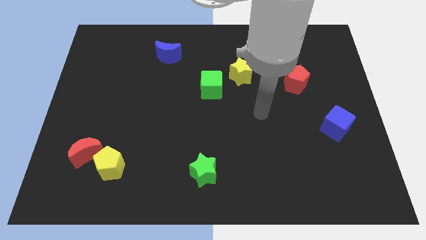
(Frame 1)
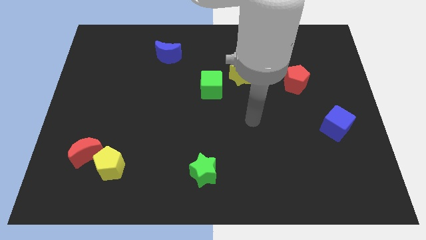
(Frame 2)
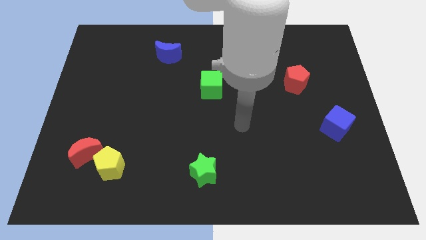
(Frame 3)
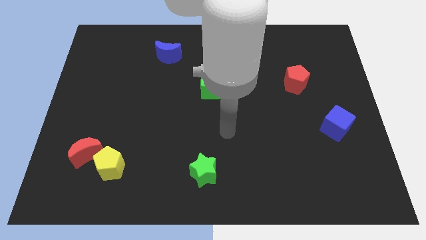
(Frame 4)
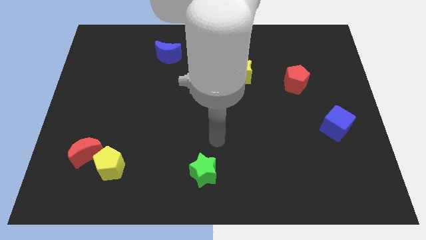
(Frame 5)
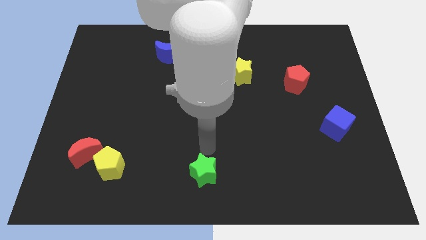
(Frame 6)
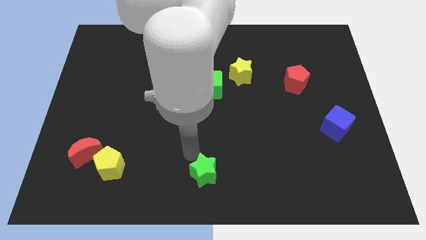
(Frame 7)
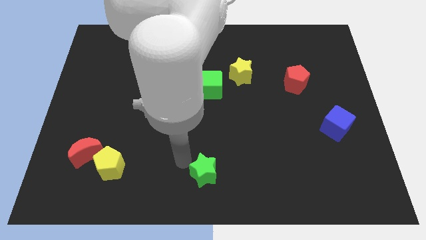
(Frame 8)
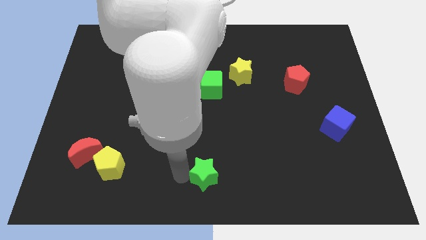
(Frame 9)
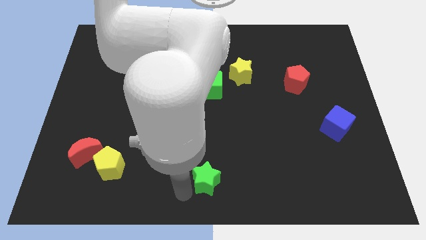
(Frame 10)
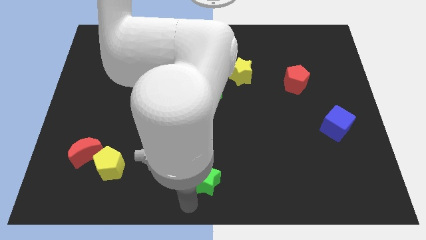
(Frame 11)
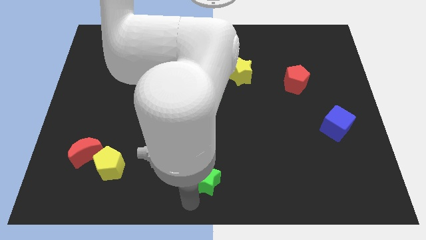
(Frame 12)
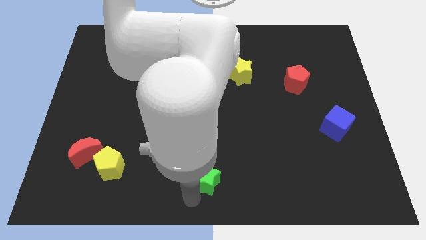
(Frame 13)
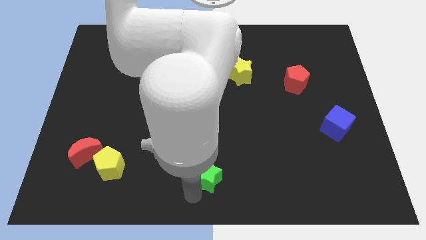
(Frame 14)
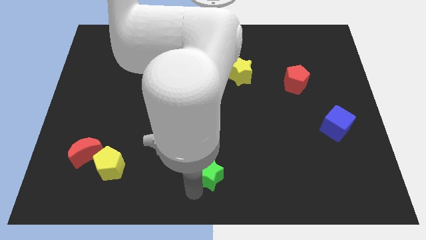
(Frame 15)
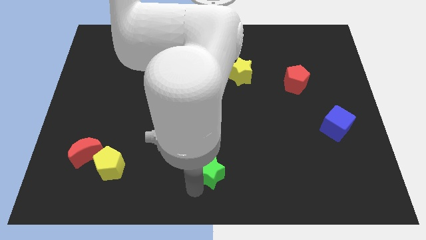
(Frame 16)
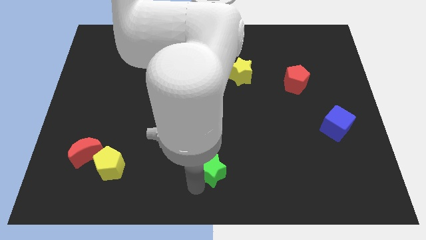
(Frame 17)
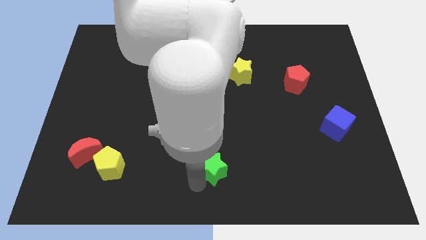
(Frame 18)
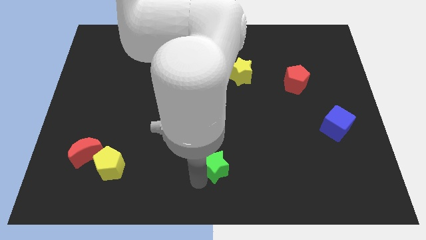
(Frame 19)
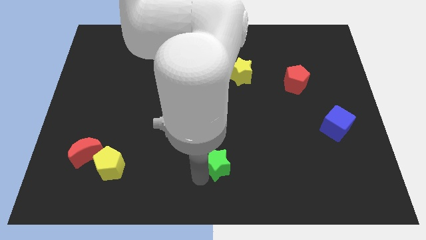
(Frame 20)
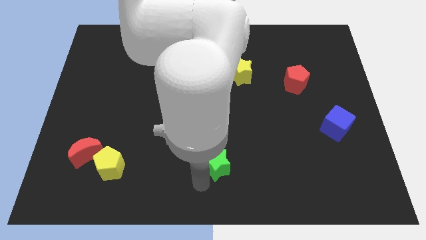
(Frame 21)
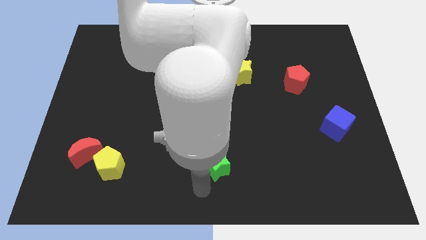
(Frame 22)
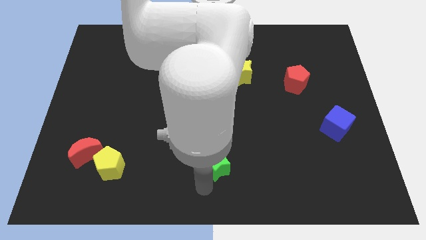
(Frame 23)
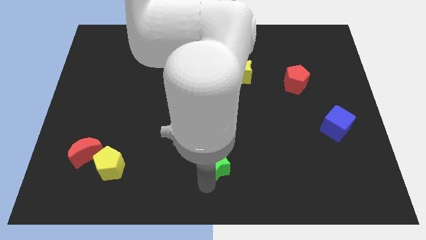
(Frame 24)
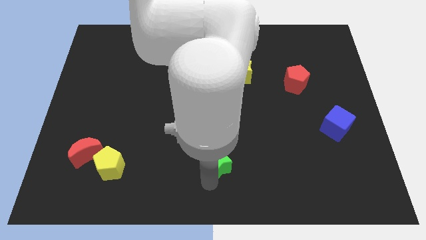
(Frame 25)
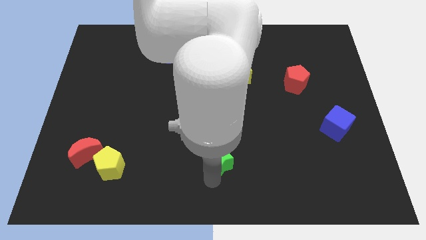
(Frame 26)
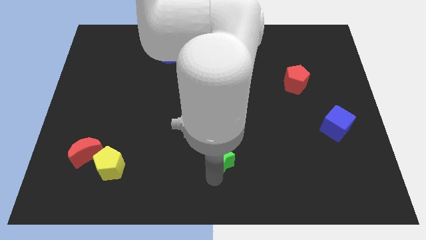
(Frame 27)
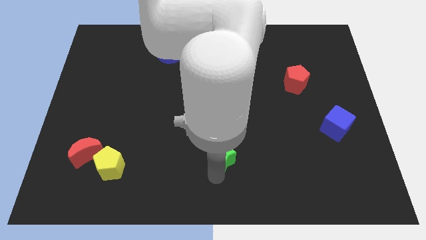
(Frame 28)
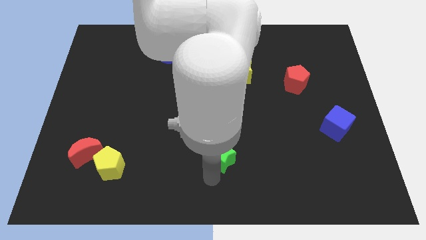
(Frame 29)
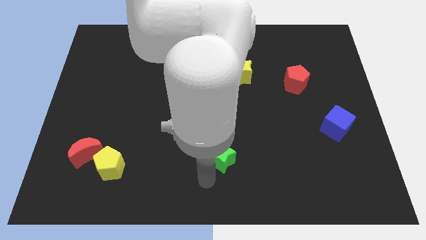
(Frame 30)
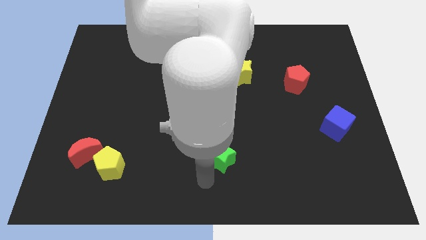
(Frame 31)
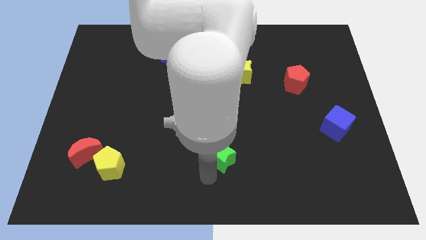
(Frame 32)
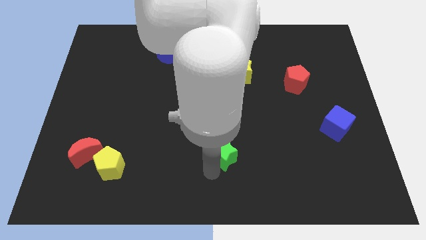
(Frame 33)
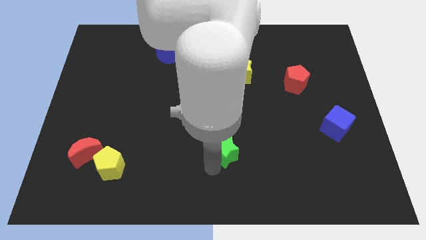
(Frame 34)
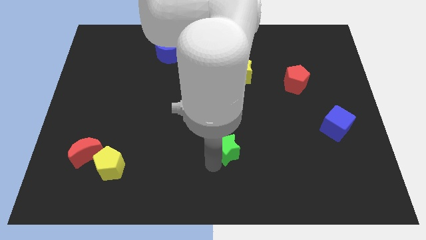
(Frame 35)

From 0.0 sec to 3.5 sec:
slightly move the green star up and to the right

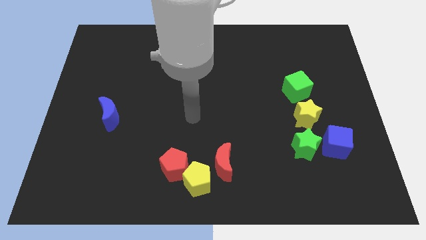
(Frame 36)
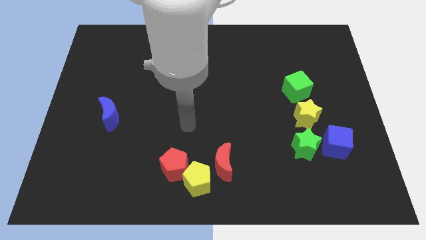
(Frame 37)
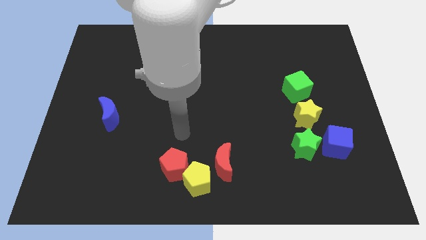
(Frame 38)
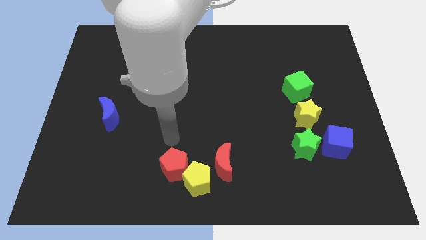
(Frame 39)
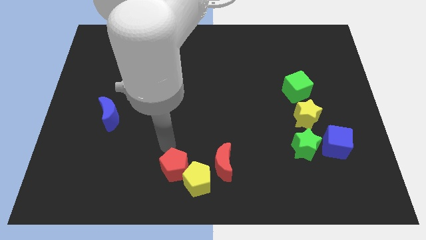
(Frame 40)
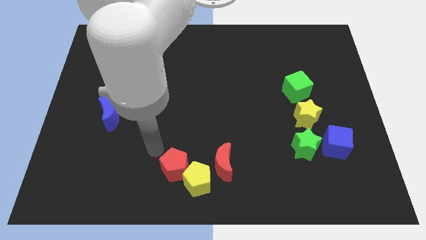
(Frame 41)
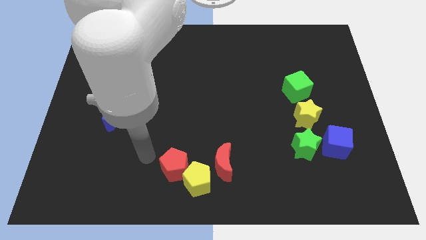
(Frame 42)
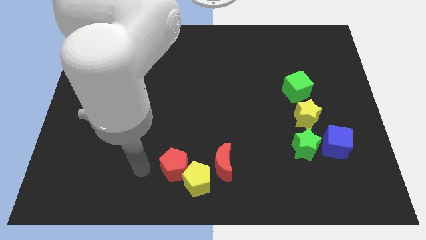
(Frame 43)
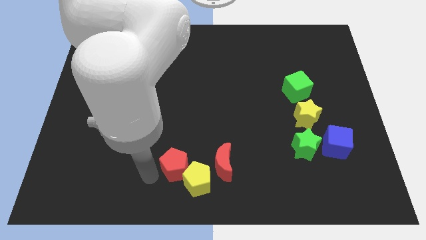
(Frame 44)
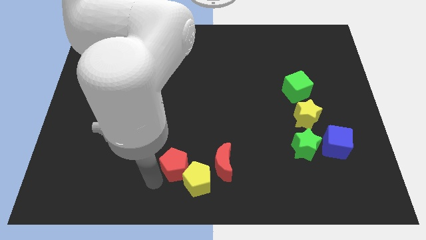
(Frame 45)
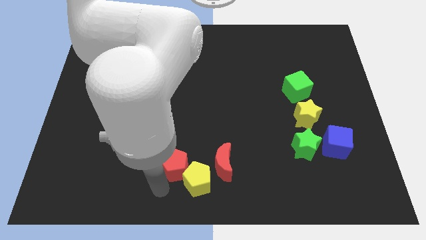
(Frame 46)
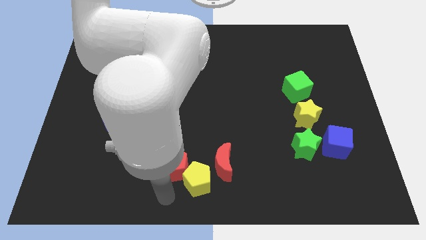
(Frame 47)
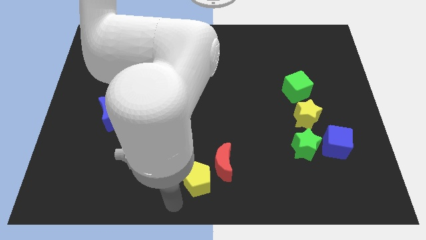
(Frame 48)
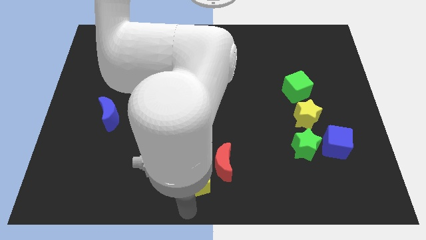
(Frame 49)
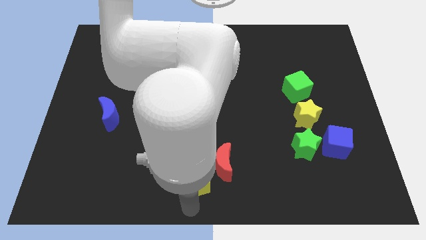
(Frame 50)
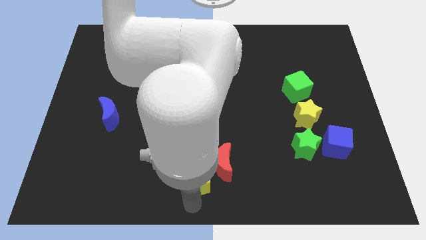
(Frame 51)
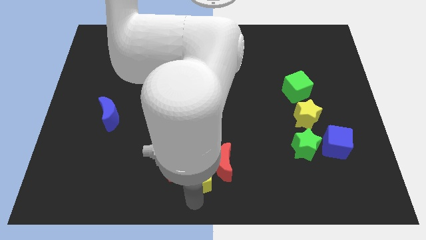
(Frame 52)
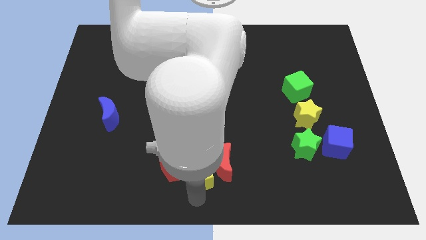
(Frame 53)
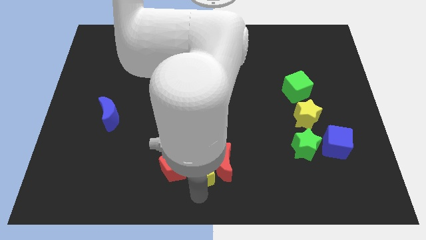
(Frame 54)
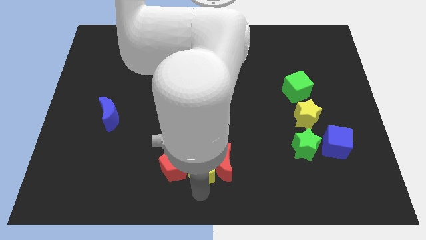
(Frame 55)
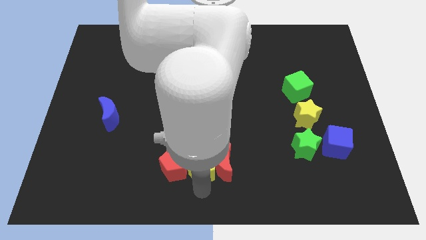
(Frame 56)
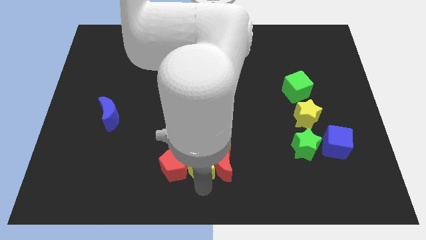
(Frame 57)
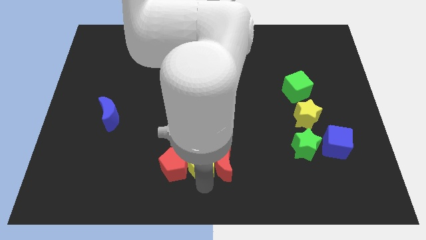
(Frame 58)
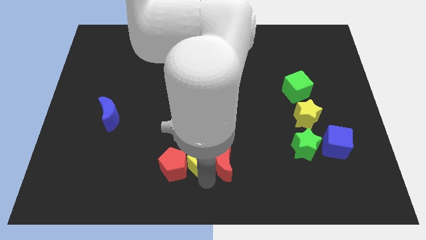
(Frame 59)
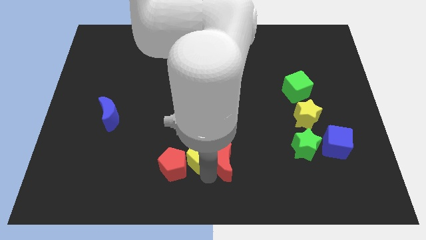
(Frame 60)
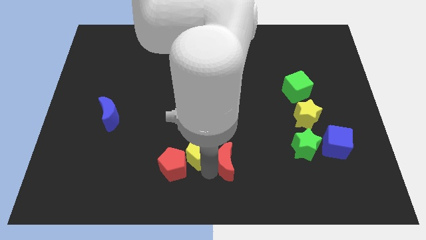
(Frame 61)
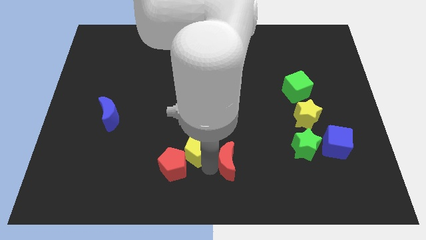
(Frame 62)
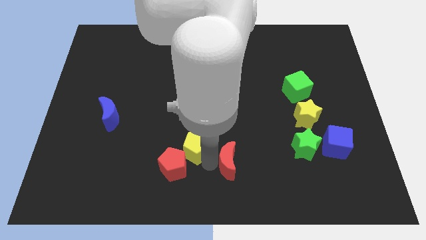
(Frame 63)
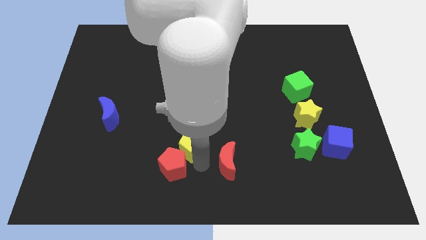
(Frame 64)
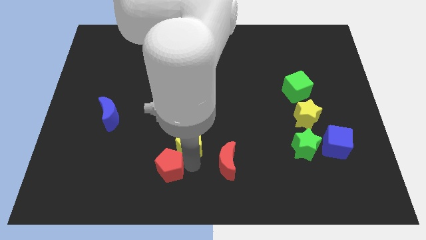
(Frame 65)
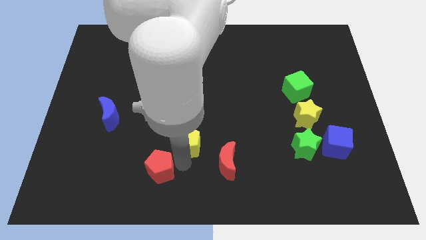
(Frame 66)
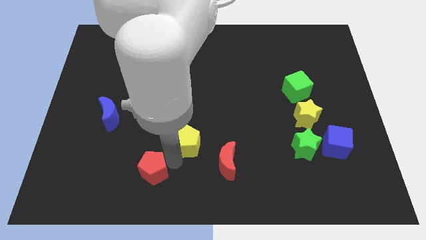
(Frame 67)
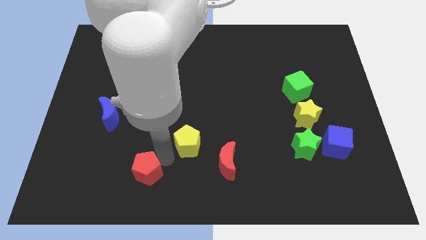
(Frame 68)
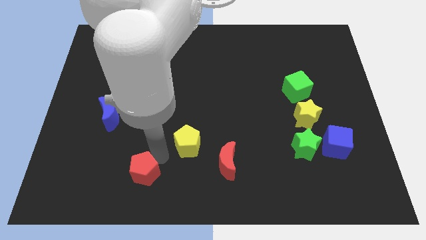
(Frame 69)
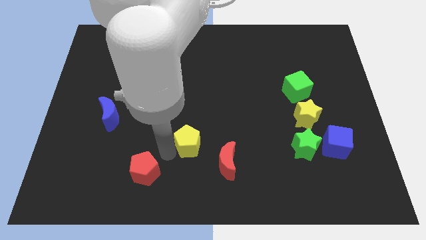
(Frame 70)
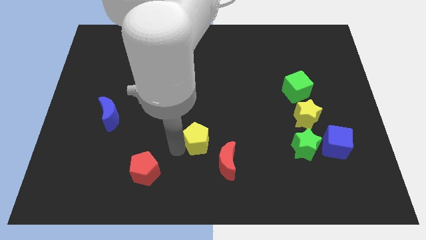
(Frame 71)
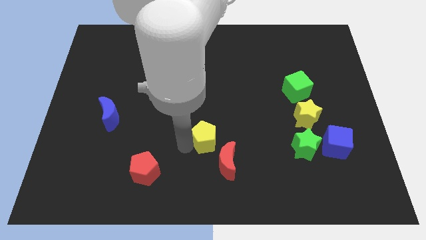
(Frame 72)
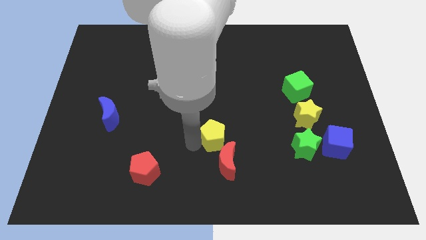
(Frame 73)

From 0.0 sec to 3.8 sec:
move the yellow pentagon somewhat upwards and then to the right

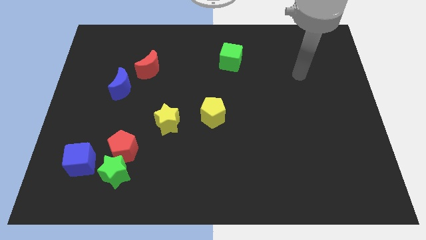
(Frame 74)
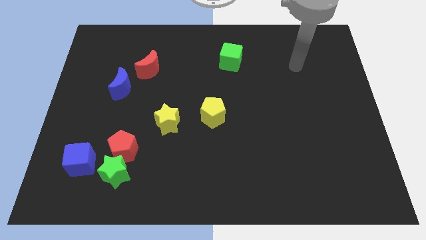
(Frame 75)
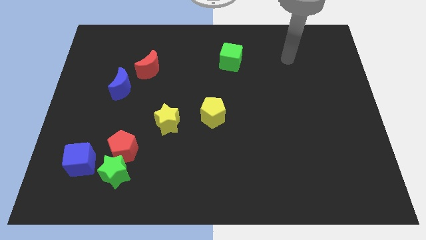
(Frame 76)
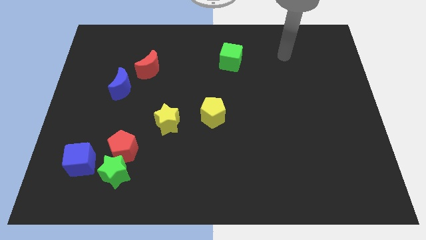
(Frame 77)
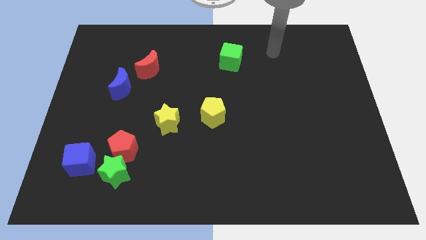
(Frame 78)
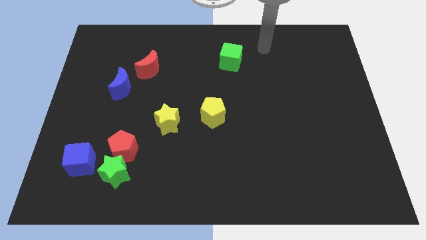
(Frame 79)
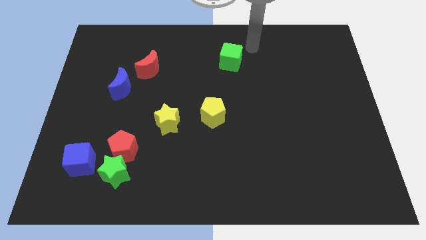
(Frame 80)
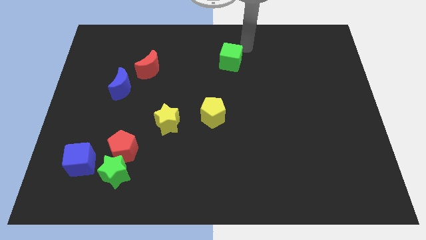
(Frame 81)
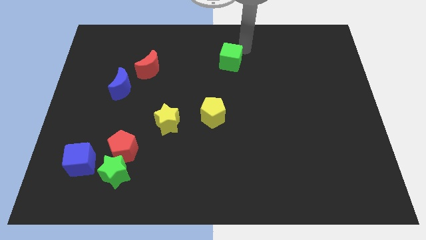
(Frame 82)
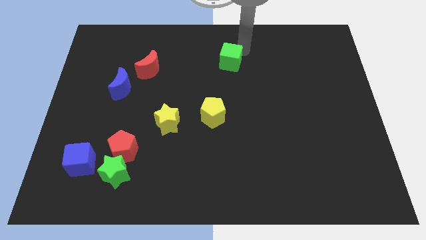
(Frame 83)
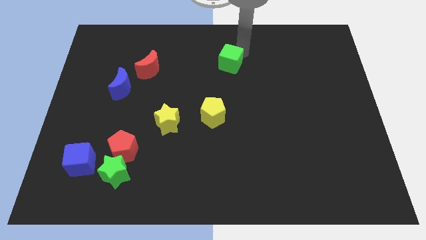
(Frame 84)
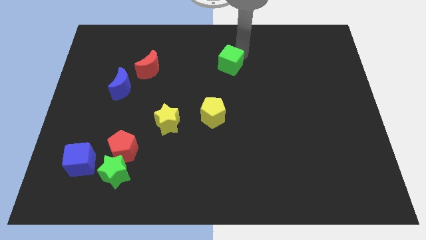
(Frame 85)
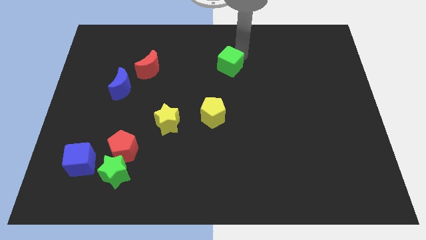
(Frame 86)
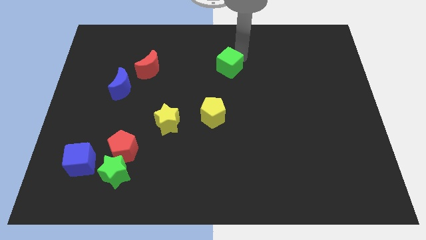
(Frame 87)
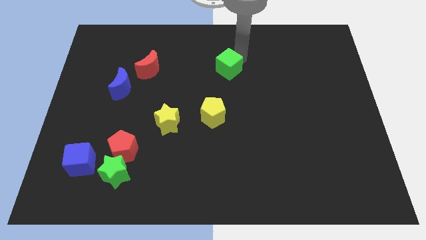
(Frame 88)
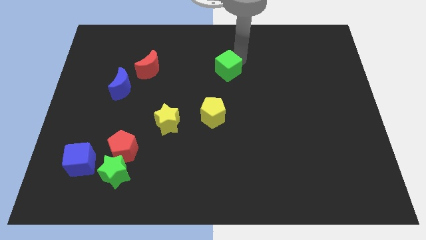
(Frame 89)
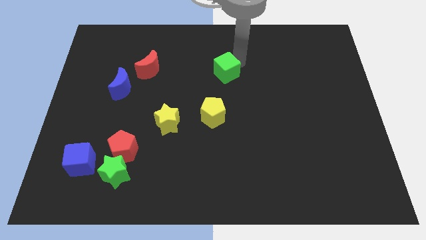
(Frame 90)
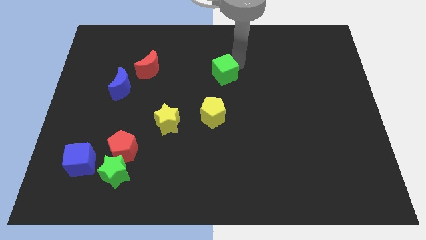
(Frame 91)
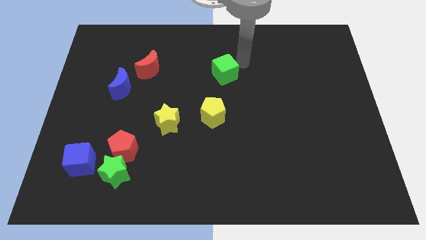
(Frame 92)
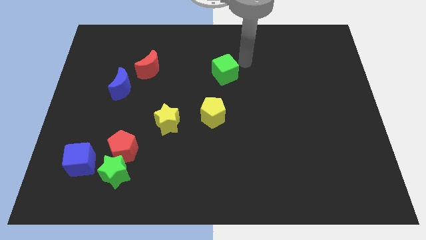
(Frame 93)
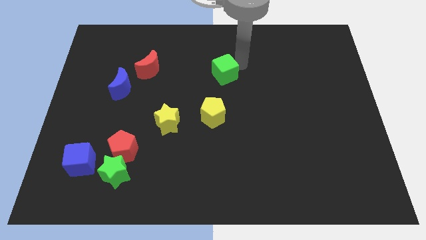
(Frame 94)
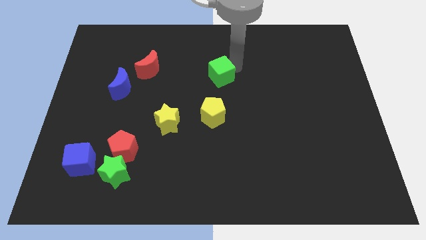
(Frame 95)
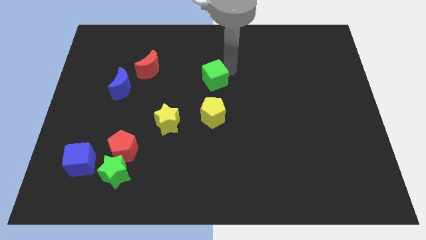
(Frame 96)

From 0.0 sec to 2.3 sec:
slide the green cube somewhat down and to the left
